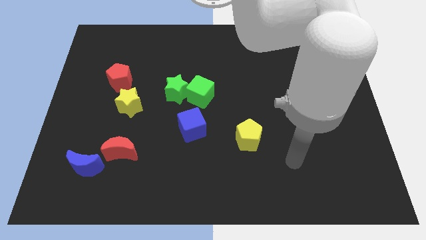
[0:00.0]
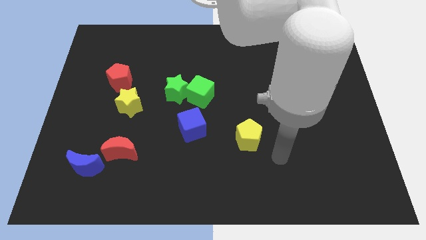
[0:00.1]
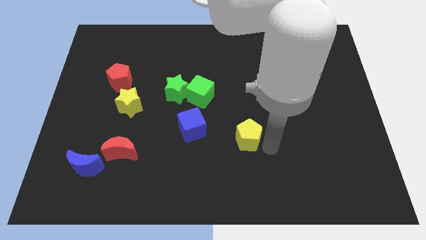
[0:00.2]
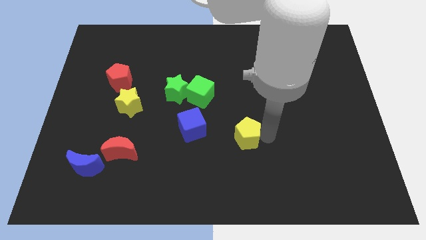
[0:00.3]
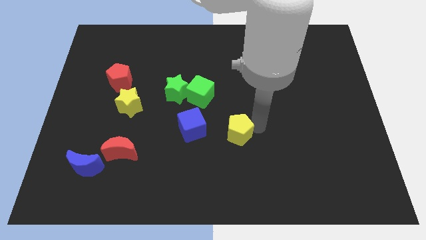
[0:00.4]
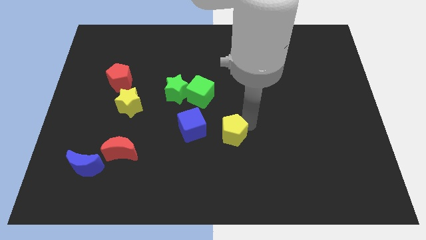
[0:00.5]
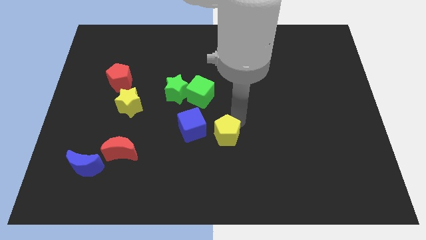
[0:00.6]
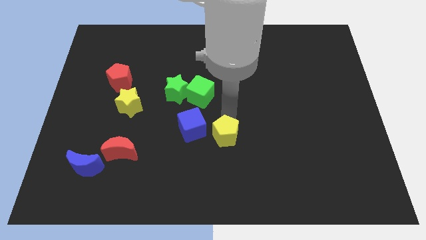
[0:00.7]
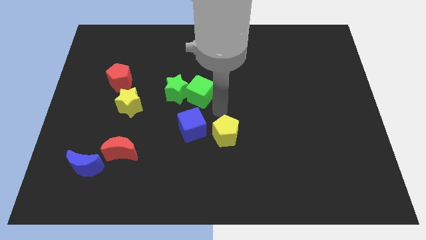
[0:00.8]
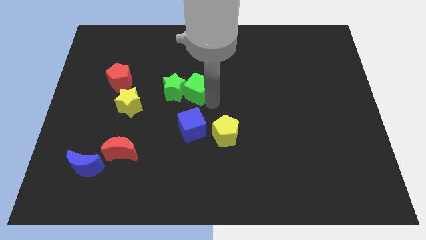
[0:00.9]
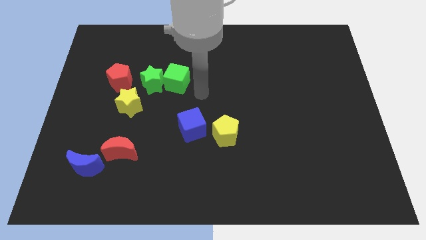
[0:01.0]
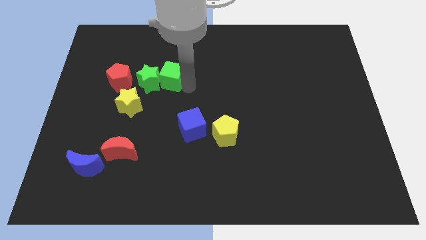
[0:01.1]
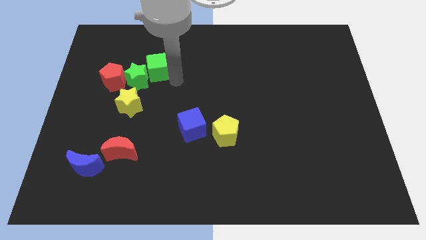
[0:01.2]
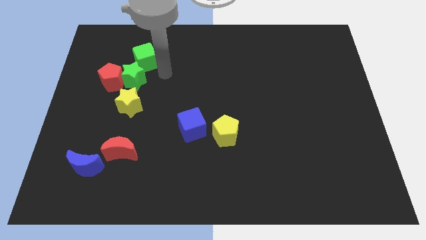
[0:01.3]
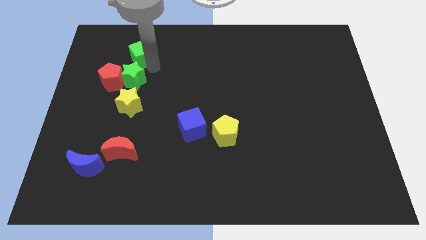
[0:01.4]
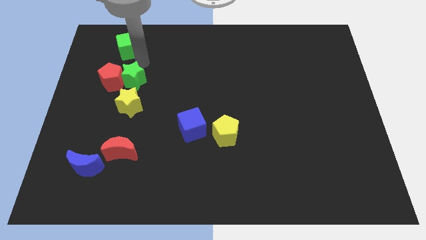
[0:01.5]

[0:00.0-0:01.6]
move the green star away from the green cube

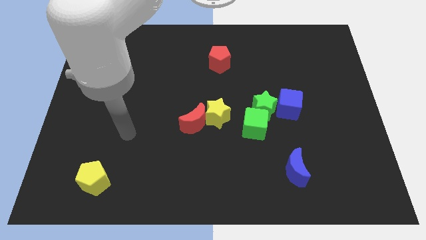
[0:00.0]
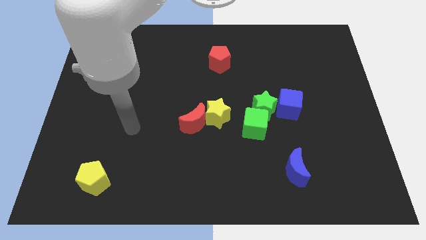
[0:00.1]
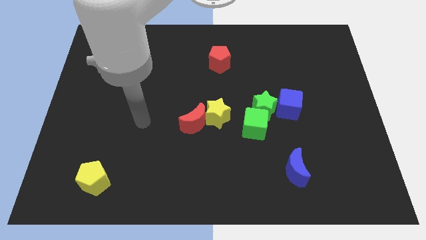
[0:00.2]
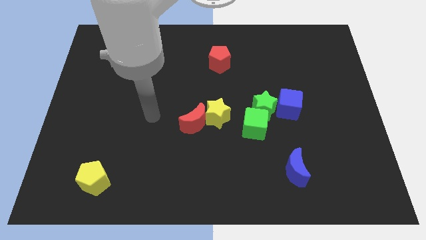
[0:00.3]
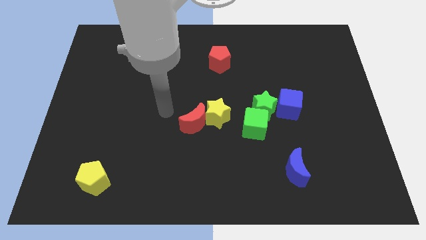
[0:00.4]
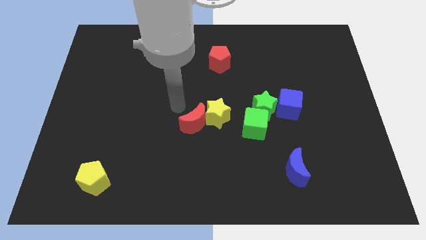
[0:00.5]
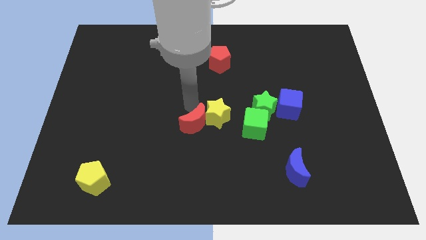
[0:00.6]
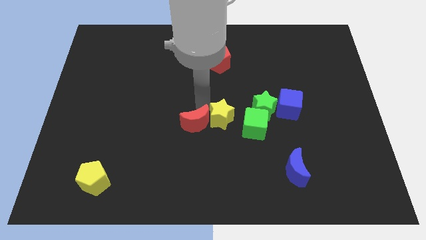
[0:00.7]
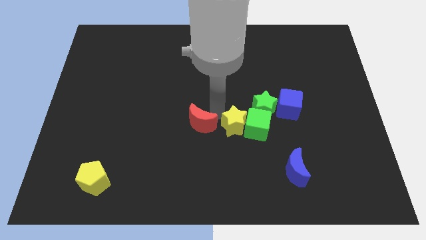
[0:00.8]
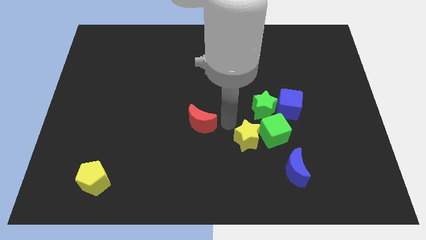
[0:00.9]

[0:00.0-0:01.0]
separate the red moon from the yellow star

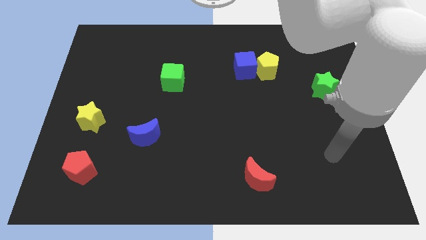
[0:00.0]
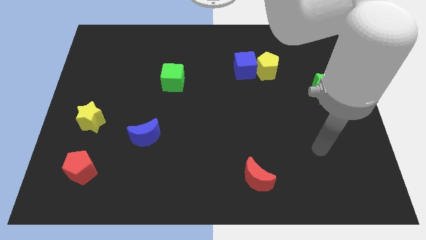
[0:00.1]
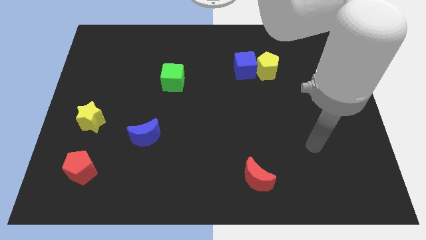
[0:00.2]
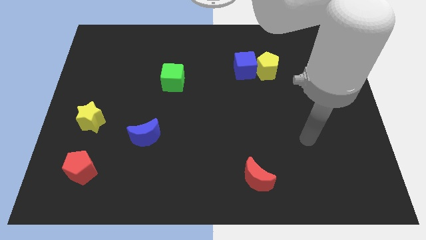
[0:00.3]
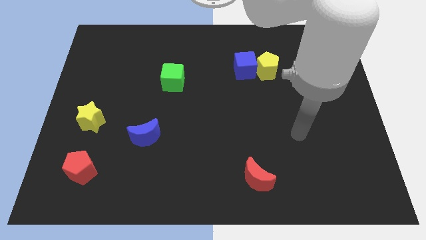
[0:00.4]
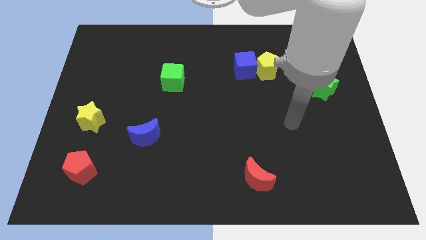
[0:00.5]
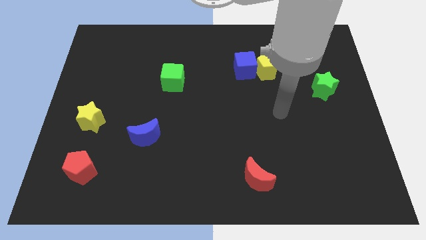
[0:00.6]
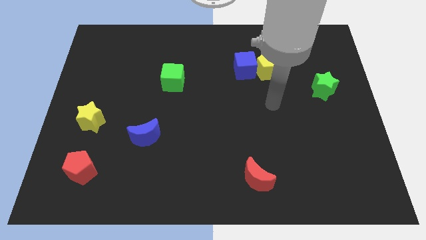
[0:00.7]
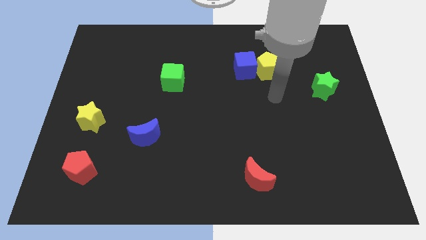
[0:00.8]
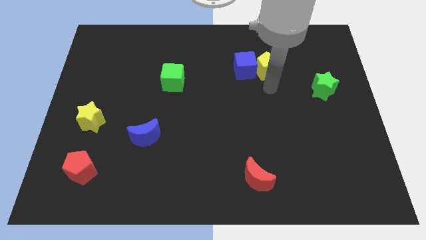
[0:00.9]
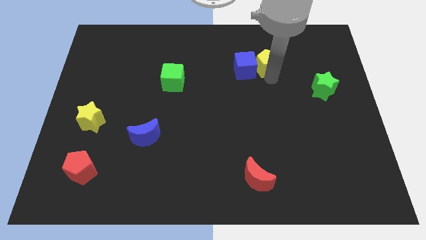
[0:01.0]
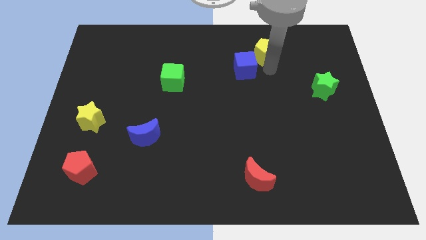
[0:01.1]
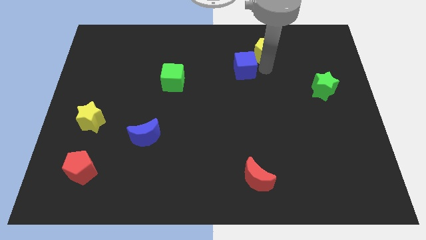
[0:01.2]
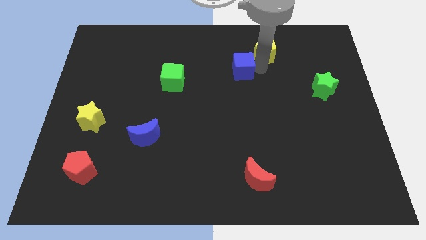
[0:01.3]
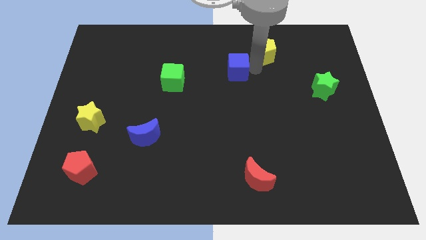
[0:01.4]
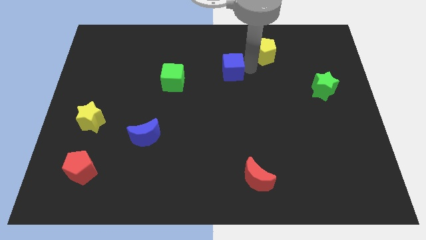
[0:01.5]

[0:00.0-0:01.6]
pull the blue cube apart from the yellow pentagon

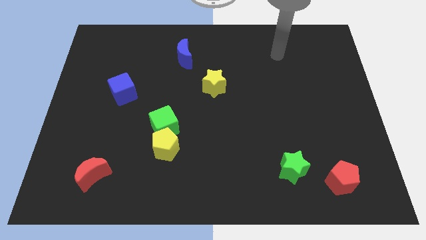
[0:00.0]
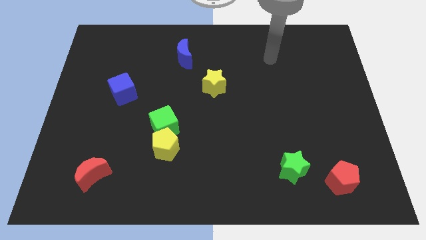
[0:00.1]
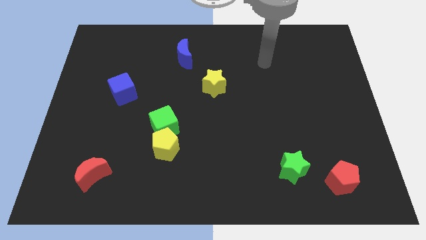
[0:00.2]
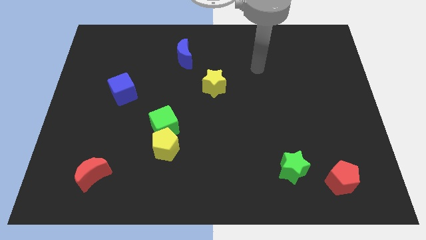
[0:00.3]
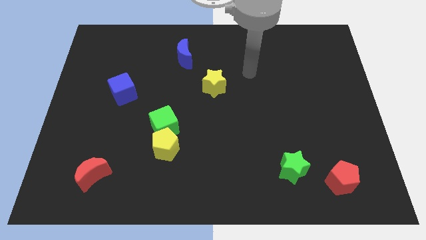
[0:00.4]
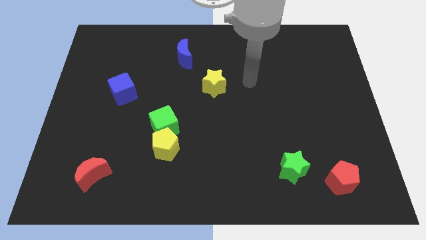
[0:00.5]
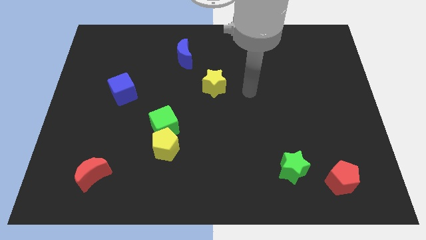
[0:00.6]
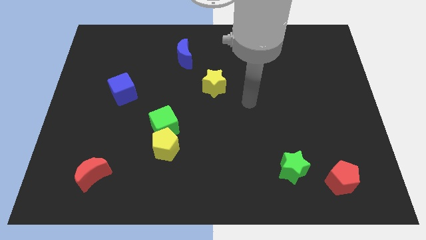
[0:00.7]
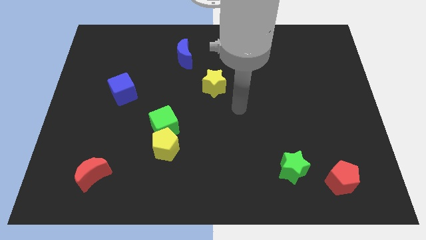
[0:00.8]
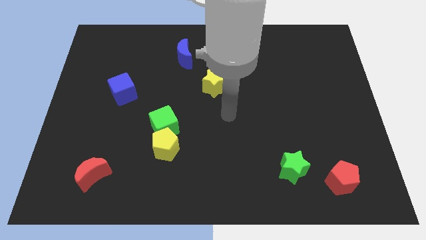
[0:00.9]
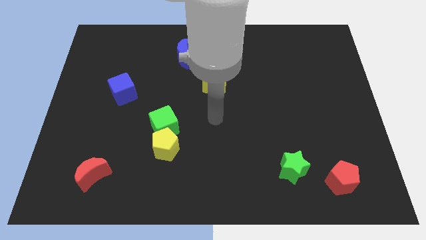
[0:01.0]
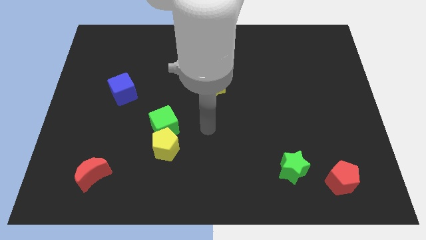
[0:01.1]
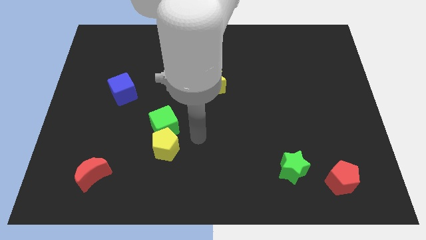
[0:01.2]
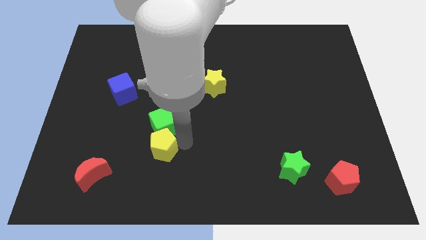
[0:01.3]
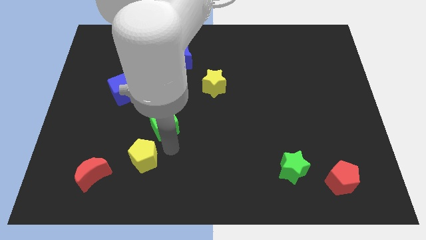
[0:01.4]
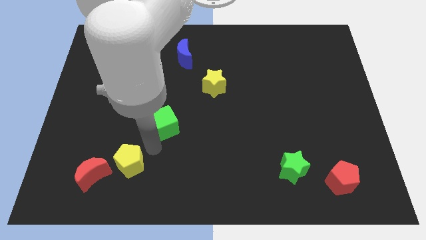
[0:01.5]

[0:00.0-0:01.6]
pull the green cube apart from the yellow pentagon

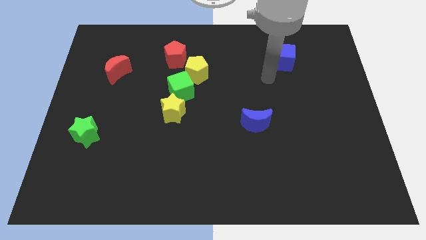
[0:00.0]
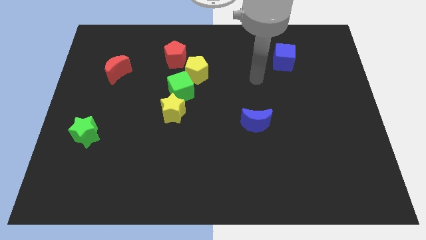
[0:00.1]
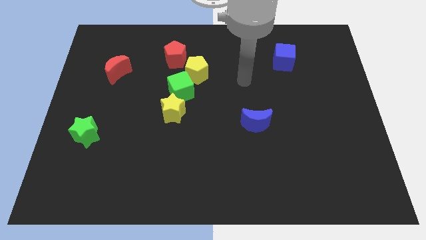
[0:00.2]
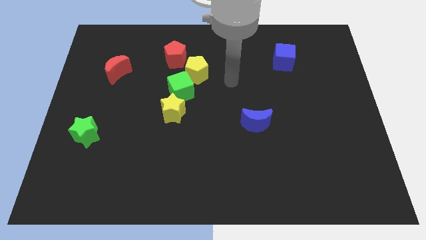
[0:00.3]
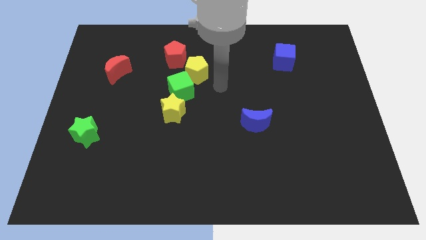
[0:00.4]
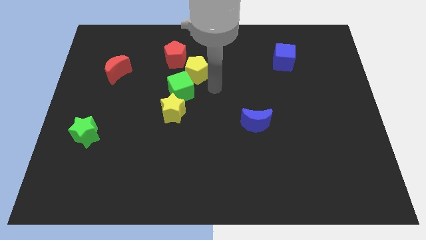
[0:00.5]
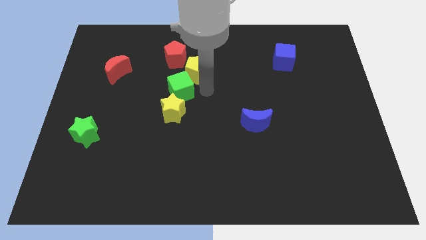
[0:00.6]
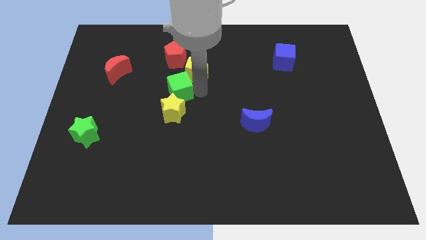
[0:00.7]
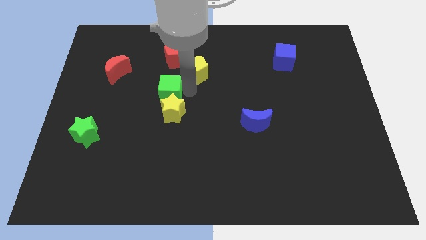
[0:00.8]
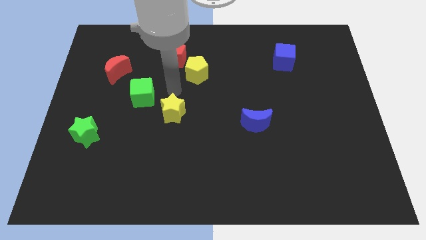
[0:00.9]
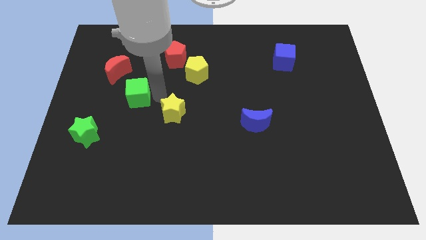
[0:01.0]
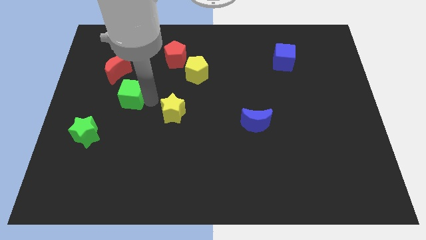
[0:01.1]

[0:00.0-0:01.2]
separate the yellow star from the green cube

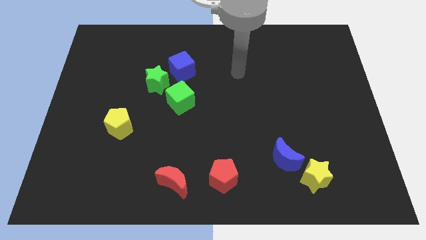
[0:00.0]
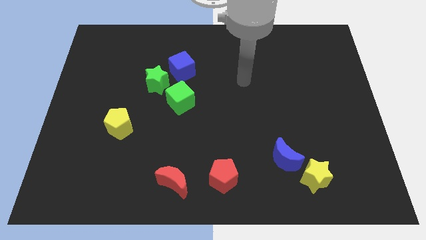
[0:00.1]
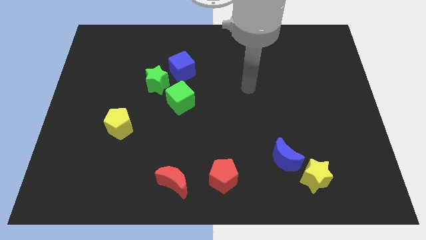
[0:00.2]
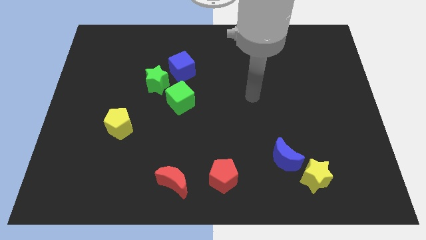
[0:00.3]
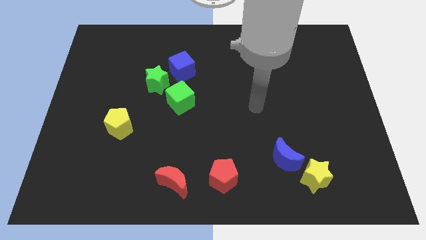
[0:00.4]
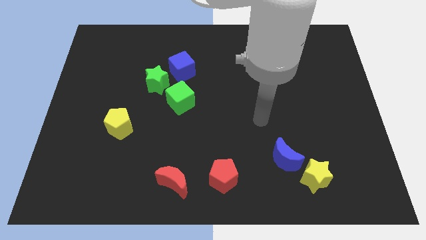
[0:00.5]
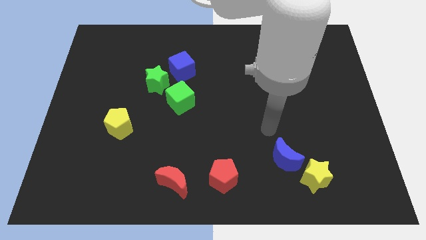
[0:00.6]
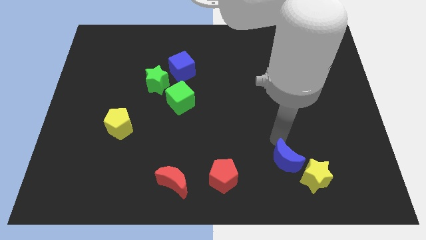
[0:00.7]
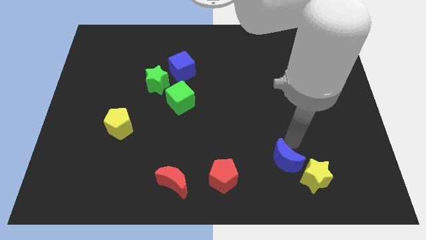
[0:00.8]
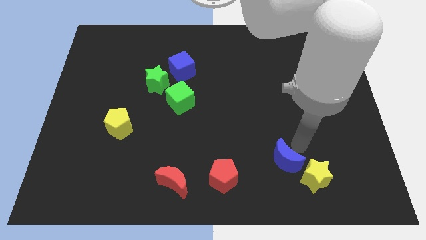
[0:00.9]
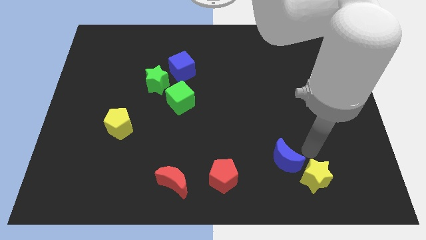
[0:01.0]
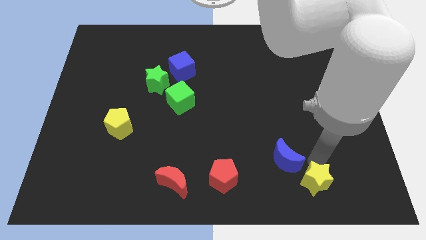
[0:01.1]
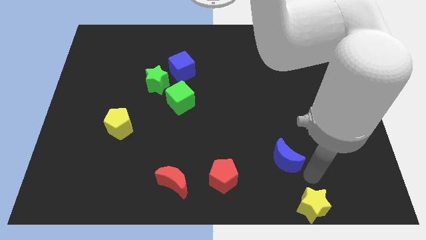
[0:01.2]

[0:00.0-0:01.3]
pull the blue moon apart from the yellow star

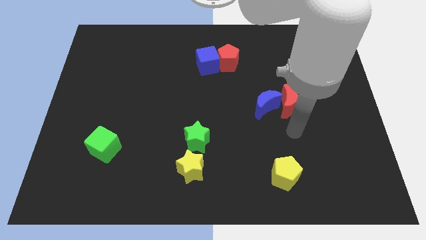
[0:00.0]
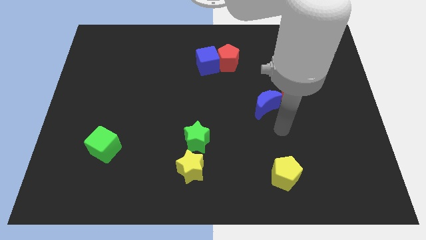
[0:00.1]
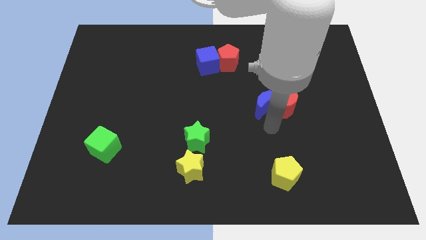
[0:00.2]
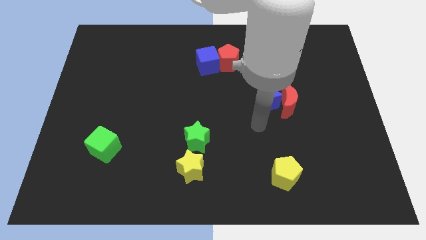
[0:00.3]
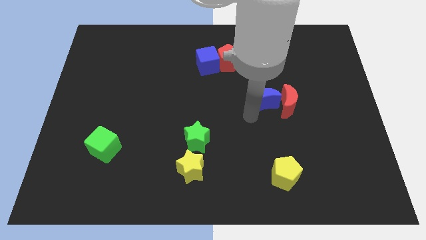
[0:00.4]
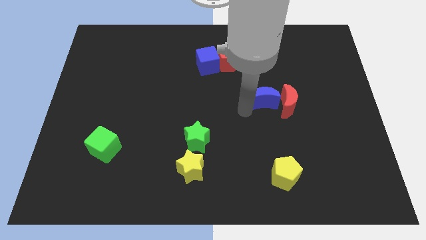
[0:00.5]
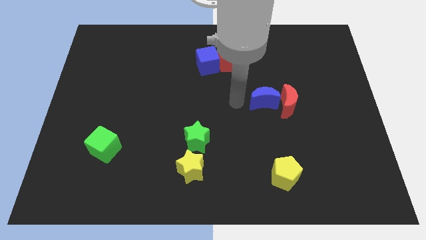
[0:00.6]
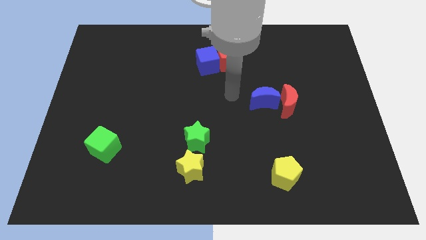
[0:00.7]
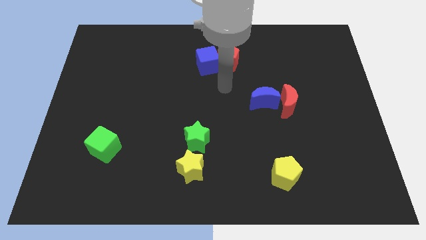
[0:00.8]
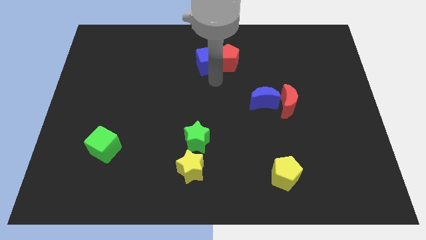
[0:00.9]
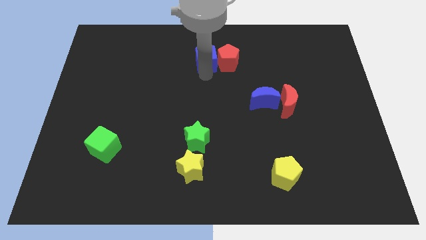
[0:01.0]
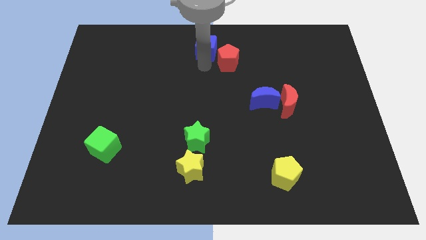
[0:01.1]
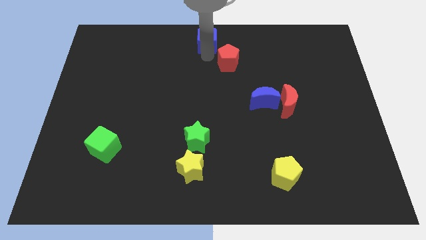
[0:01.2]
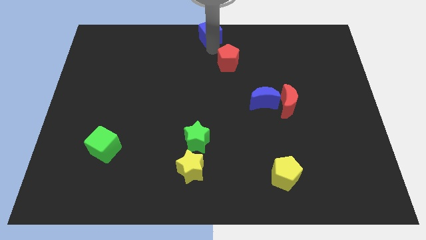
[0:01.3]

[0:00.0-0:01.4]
pull the red pentagon apart from the blue cube
